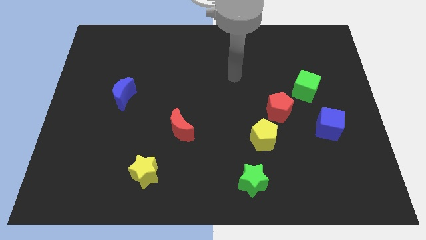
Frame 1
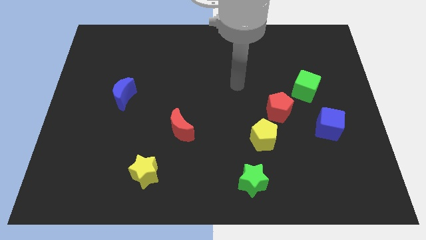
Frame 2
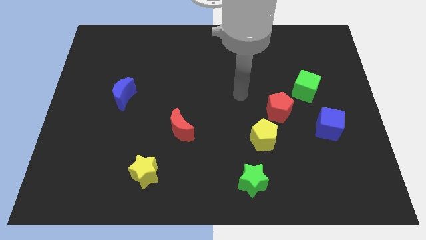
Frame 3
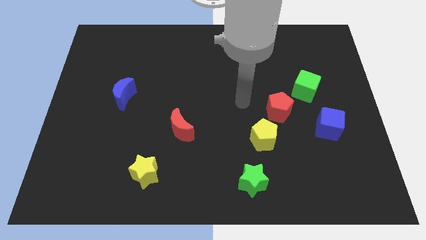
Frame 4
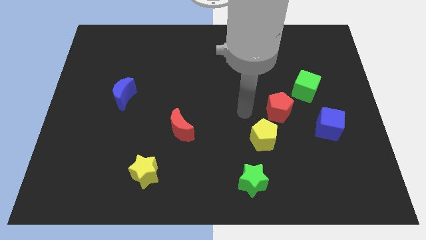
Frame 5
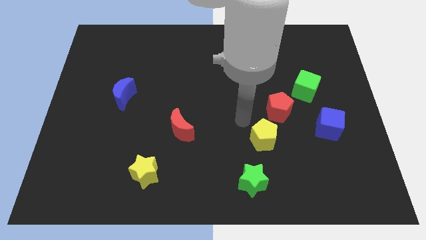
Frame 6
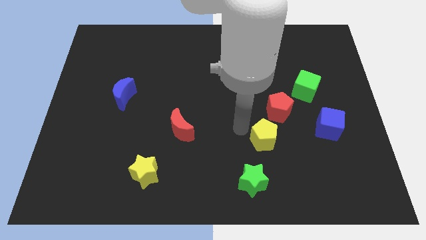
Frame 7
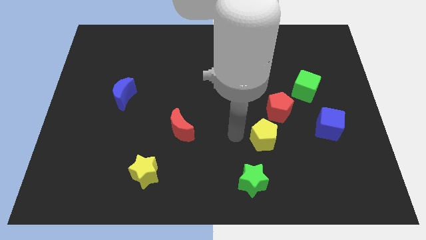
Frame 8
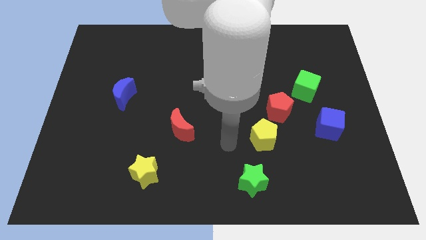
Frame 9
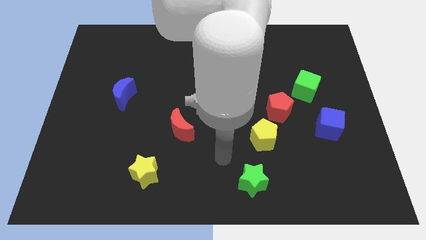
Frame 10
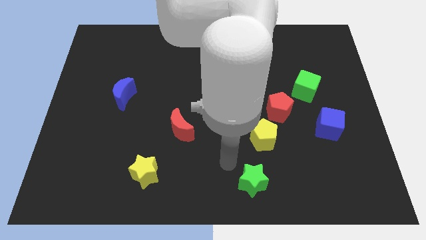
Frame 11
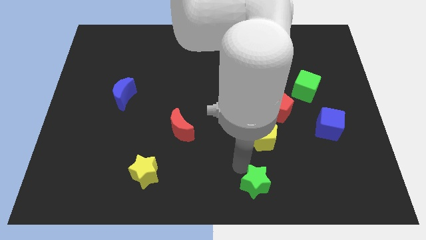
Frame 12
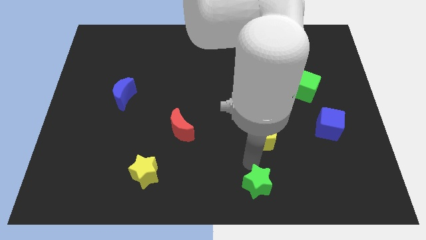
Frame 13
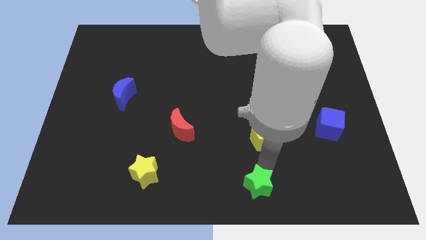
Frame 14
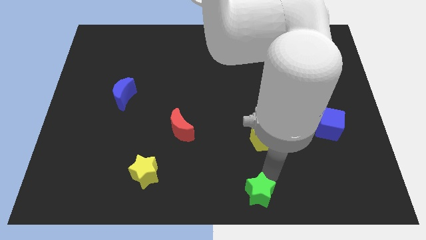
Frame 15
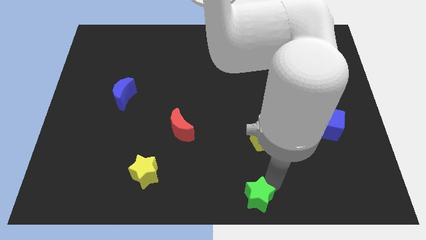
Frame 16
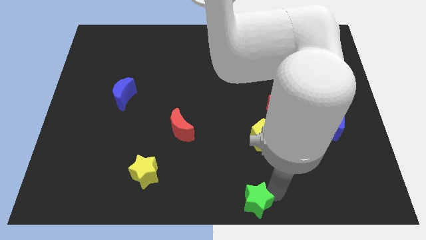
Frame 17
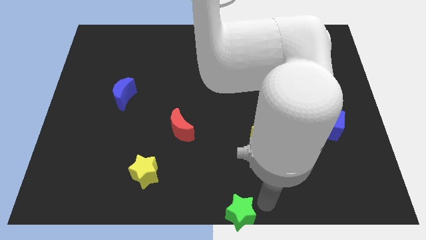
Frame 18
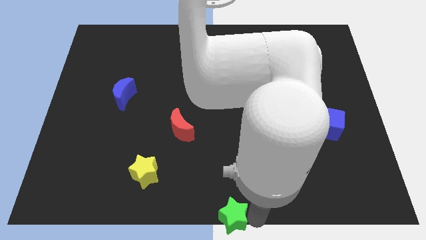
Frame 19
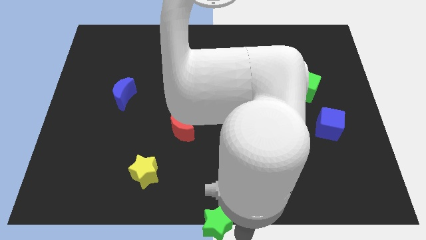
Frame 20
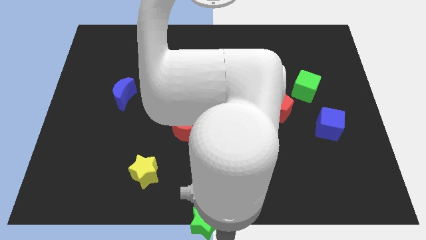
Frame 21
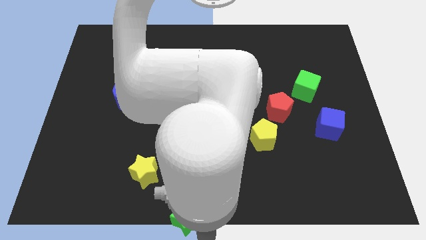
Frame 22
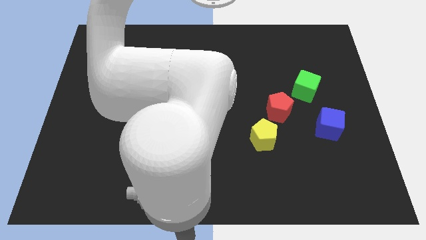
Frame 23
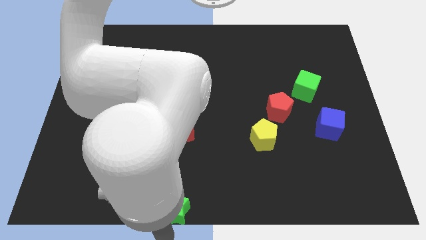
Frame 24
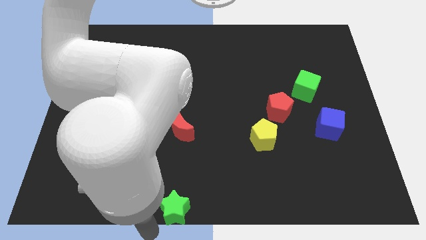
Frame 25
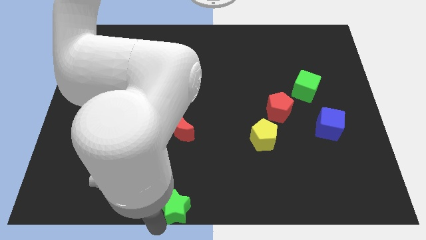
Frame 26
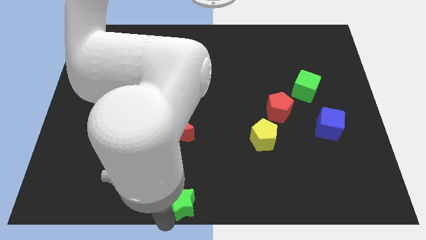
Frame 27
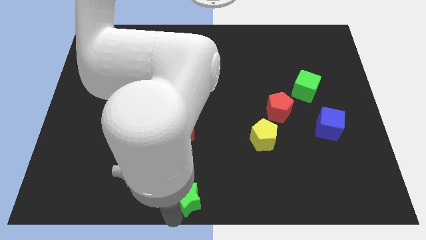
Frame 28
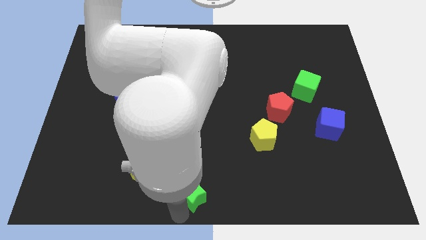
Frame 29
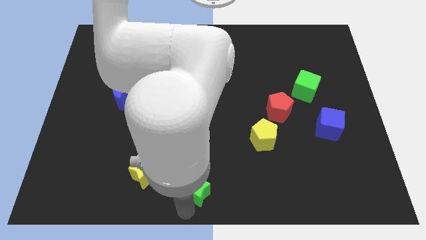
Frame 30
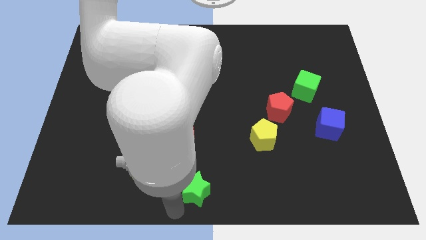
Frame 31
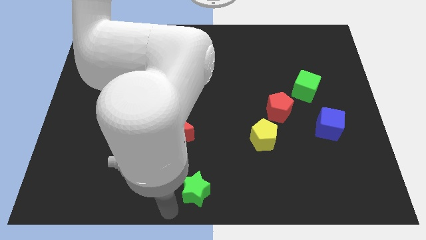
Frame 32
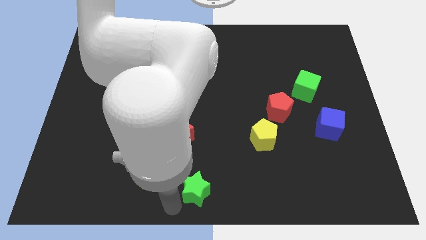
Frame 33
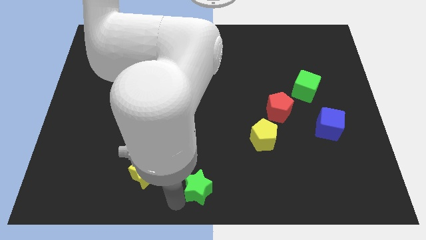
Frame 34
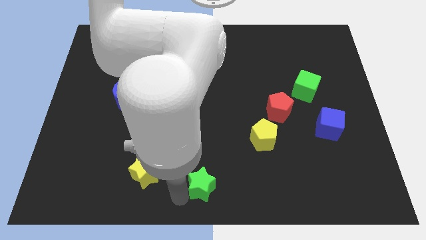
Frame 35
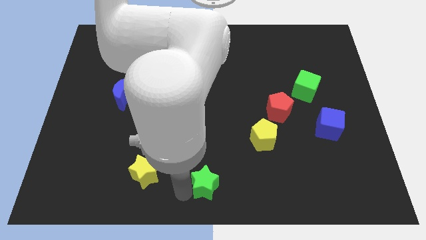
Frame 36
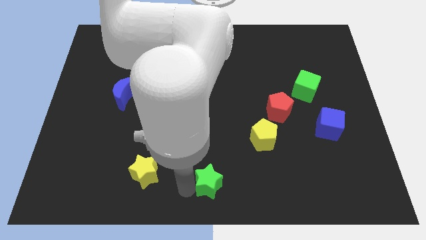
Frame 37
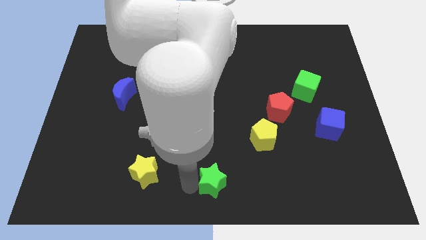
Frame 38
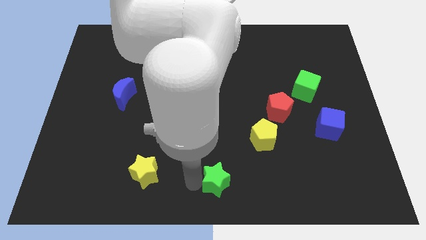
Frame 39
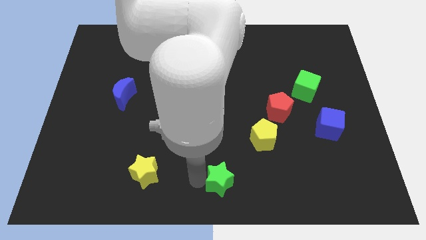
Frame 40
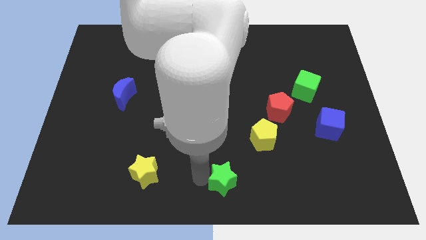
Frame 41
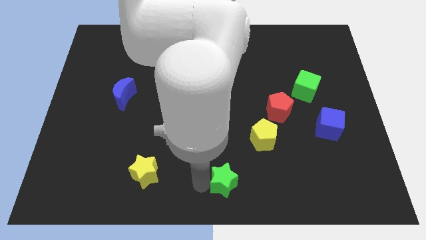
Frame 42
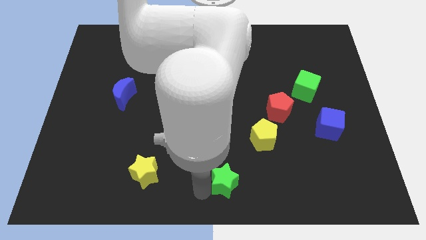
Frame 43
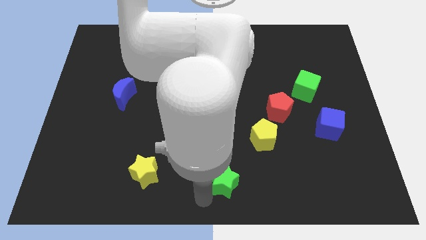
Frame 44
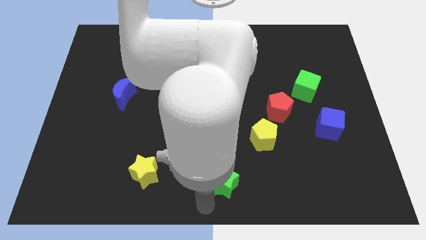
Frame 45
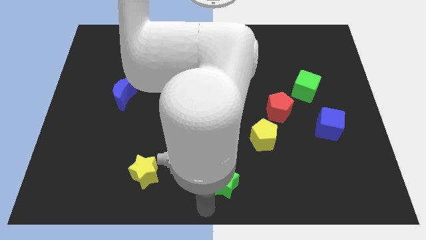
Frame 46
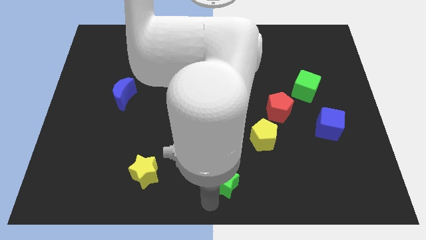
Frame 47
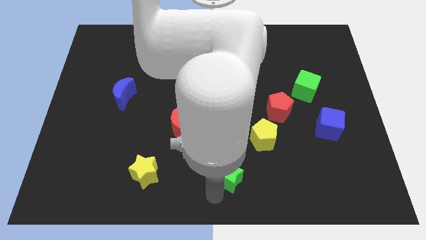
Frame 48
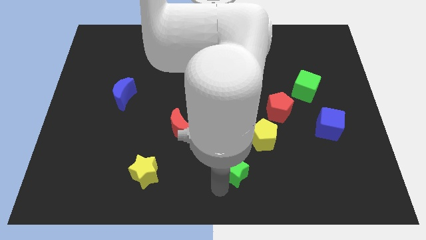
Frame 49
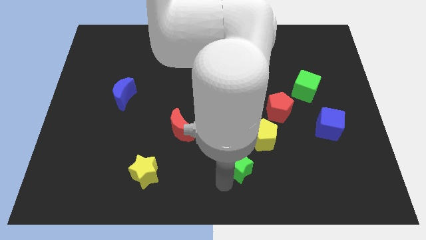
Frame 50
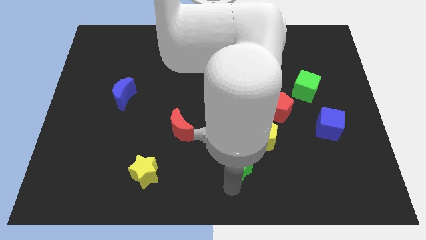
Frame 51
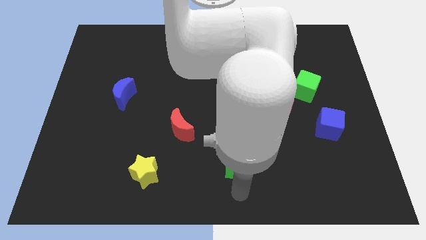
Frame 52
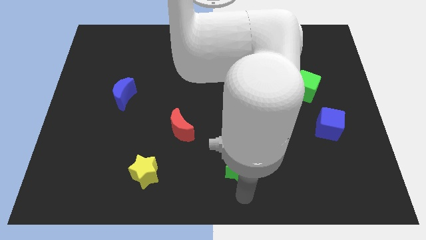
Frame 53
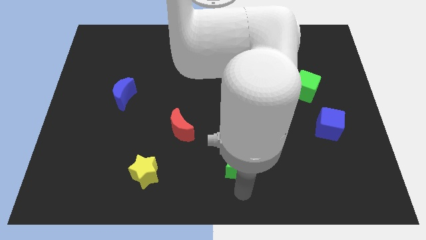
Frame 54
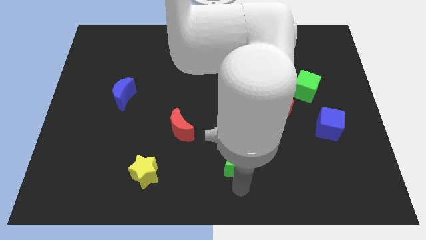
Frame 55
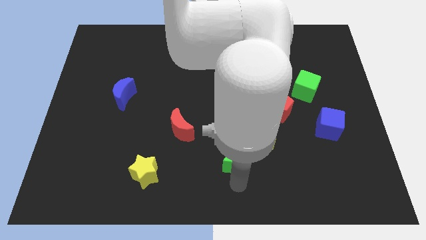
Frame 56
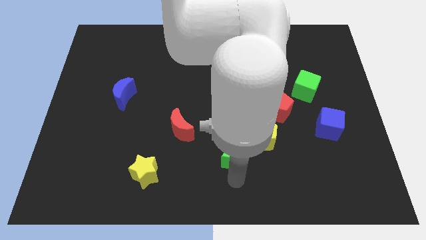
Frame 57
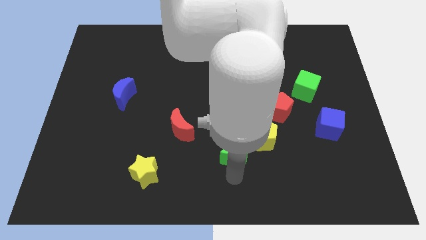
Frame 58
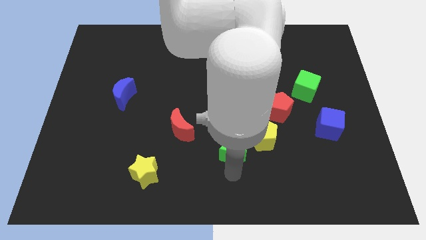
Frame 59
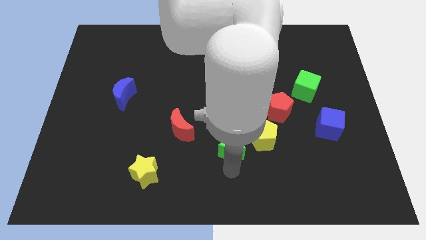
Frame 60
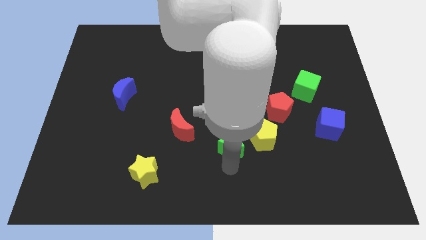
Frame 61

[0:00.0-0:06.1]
put the green star just right of the red moon

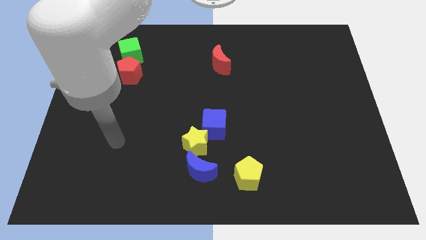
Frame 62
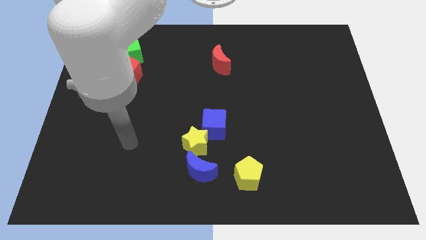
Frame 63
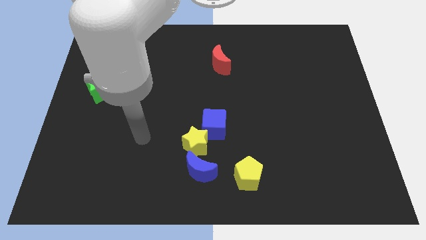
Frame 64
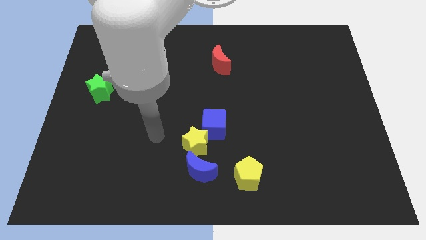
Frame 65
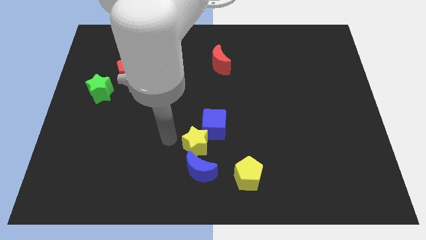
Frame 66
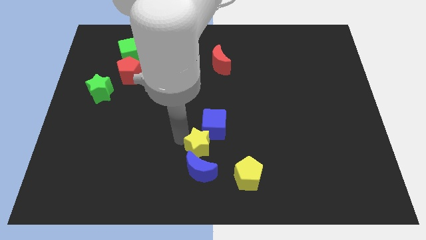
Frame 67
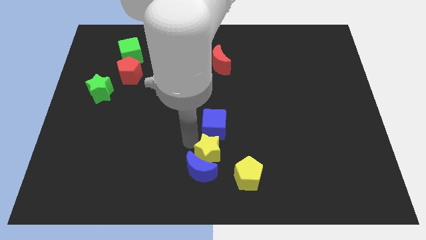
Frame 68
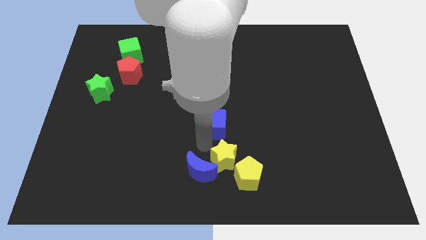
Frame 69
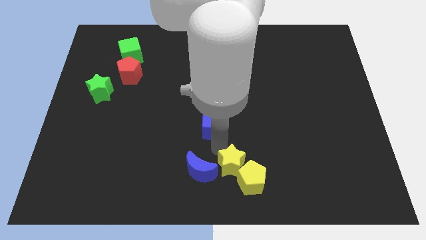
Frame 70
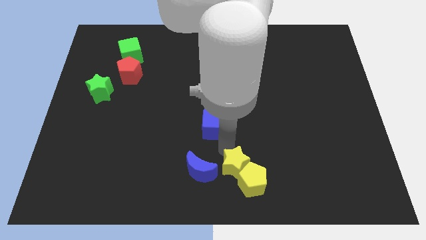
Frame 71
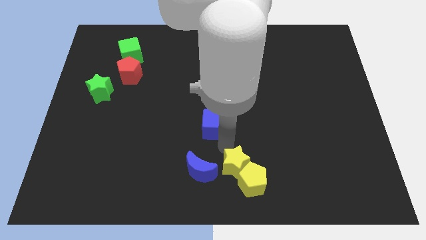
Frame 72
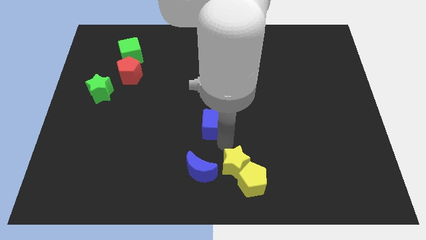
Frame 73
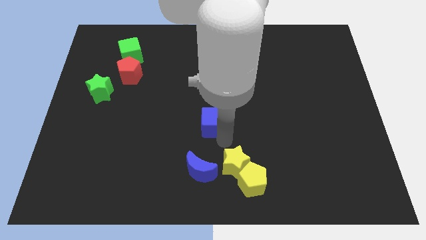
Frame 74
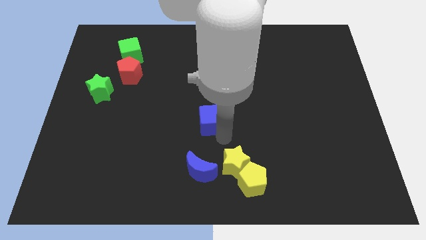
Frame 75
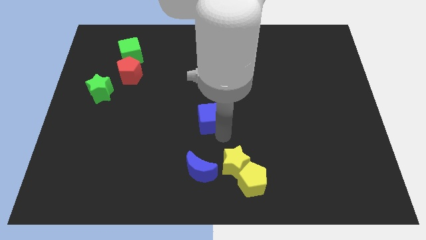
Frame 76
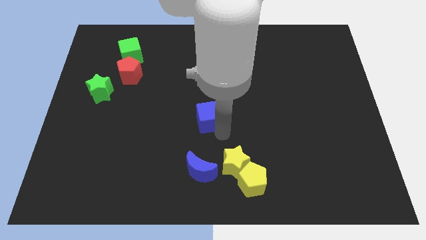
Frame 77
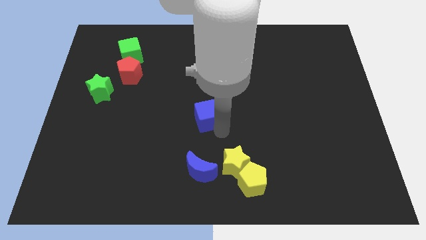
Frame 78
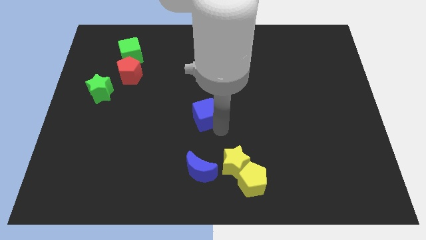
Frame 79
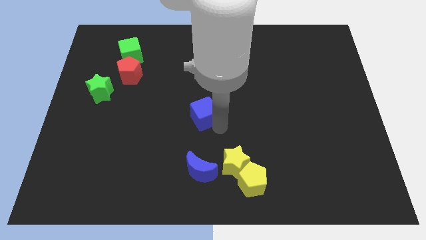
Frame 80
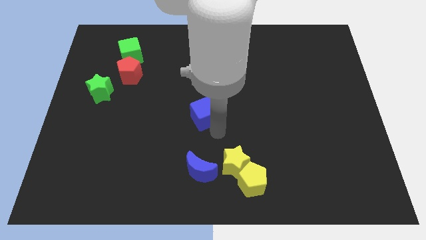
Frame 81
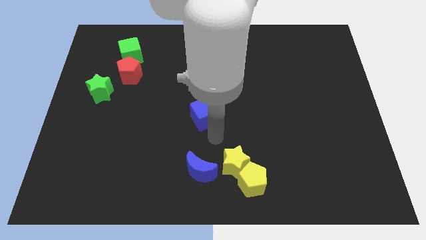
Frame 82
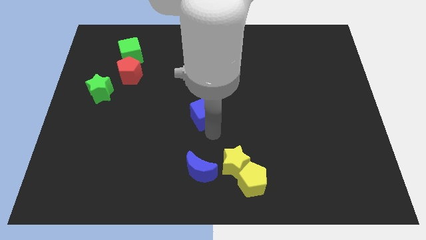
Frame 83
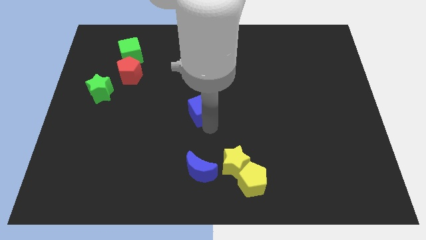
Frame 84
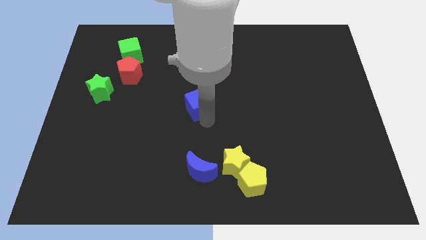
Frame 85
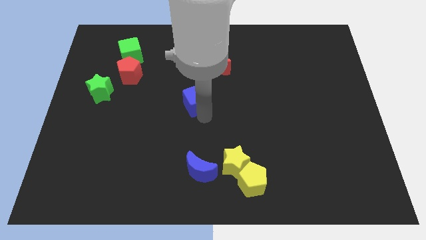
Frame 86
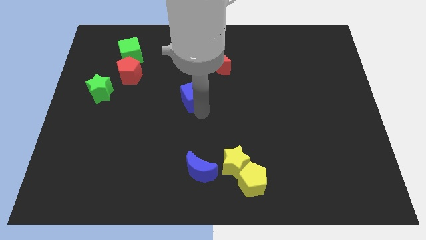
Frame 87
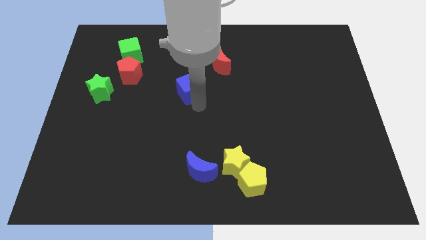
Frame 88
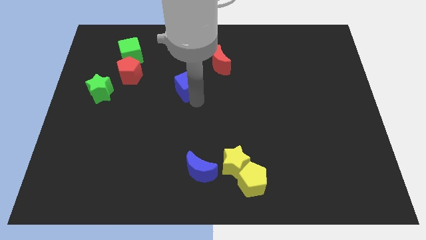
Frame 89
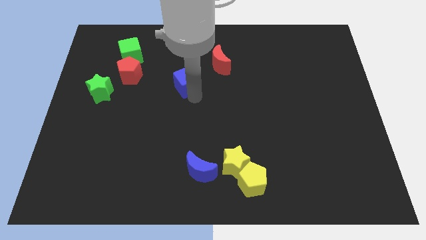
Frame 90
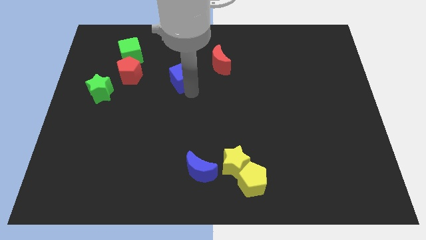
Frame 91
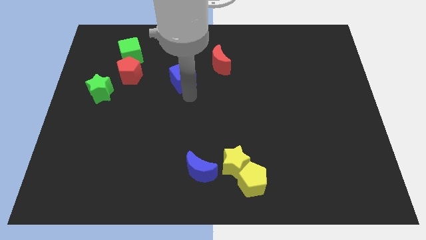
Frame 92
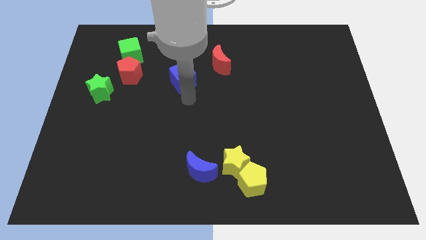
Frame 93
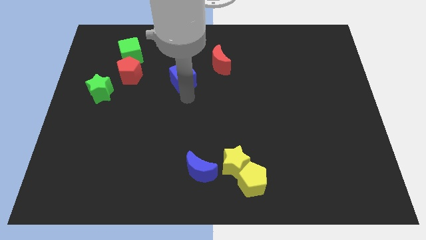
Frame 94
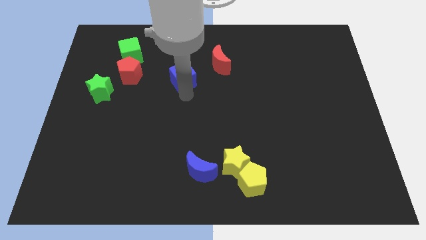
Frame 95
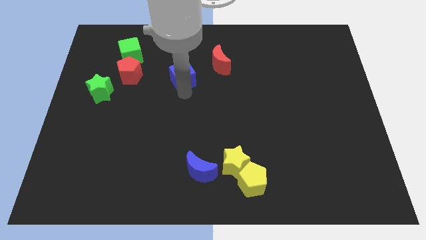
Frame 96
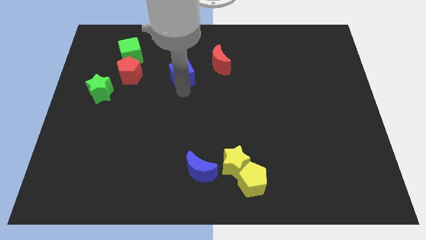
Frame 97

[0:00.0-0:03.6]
put the blue cube left of the red moon
